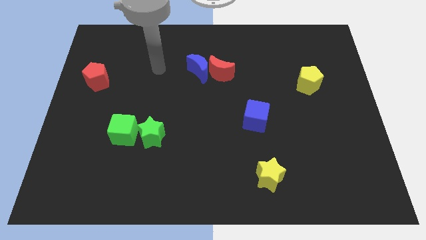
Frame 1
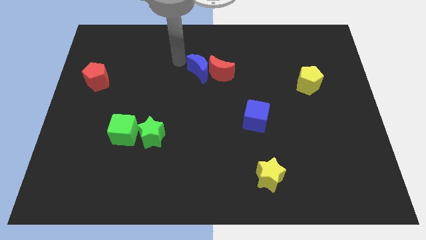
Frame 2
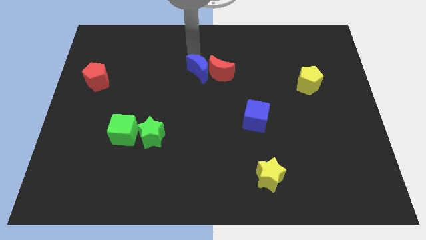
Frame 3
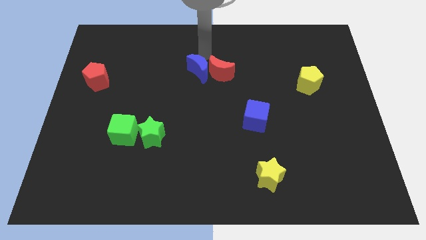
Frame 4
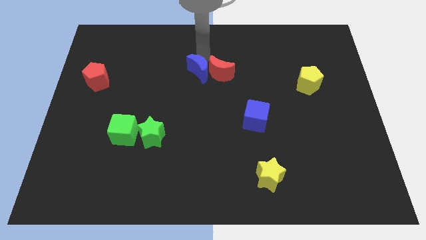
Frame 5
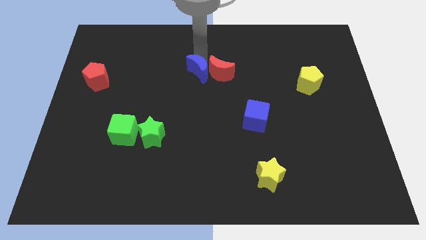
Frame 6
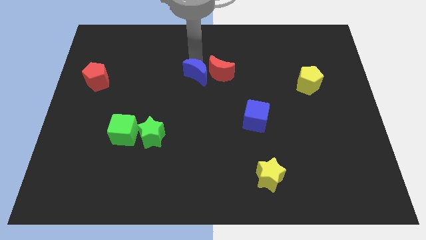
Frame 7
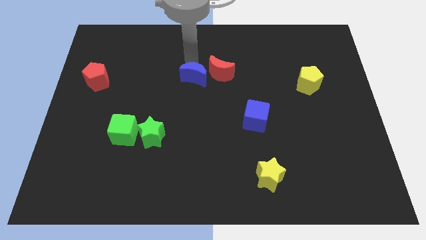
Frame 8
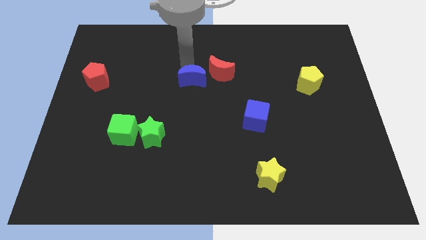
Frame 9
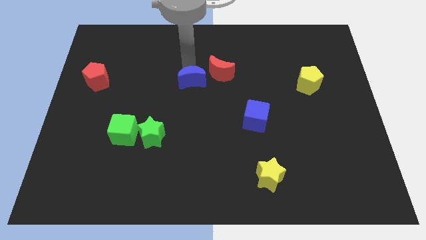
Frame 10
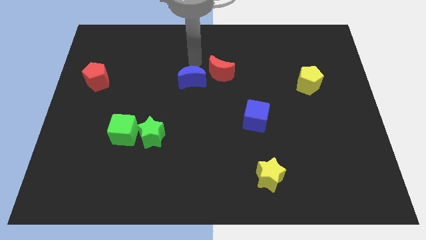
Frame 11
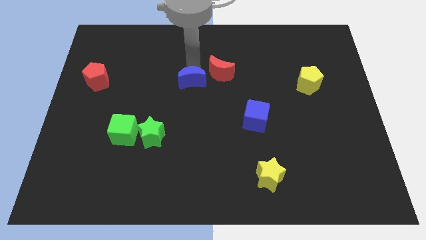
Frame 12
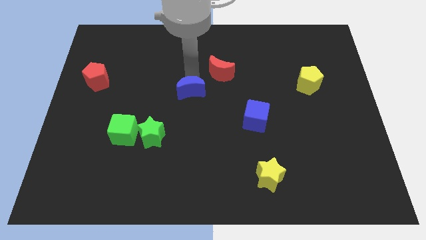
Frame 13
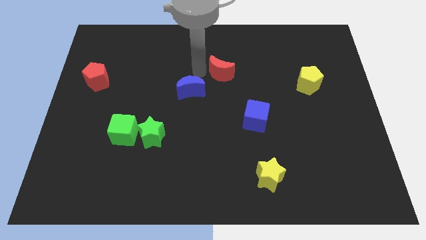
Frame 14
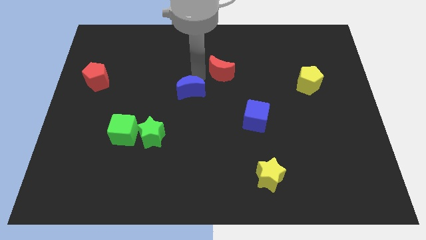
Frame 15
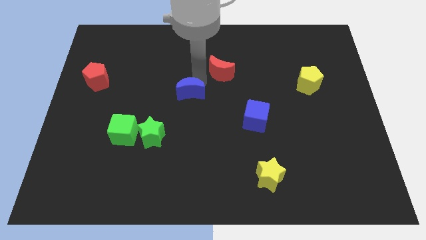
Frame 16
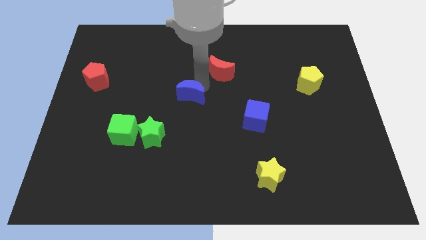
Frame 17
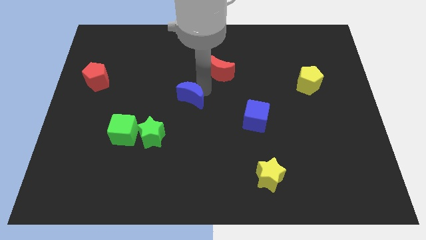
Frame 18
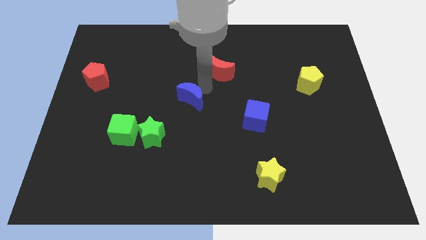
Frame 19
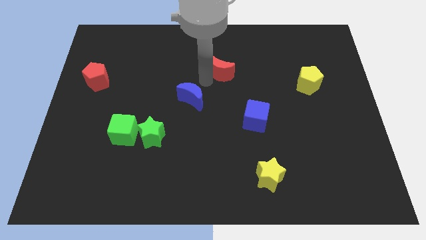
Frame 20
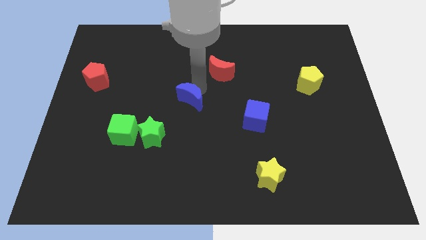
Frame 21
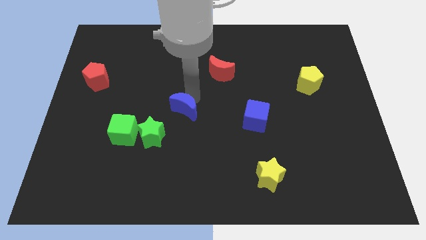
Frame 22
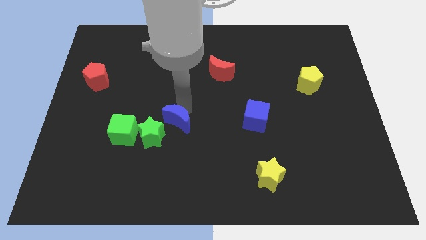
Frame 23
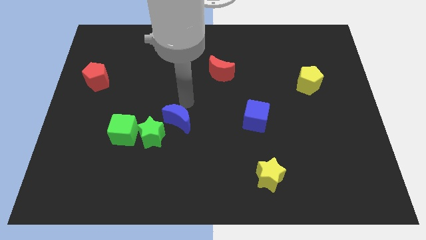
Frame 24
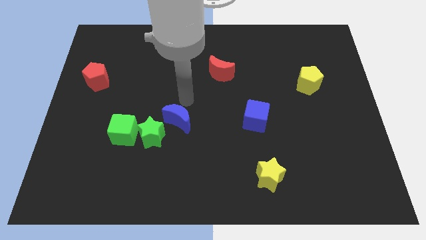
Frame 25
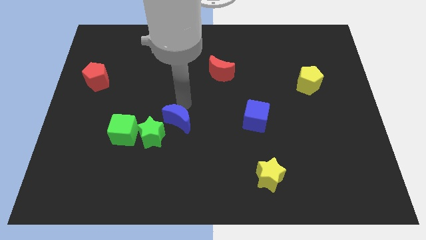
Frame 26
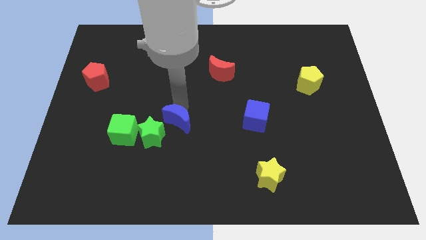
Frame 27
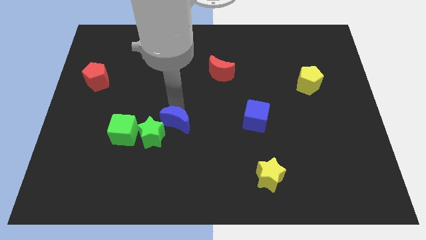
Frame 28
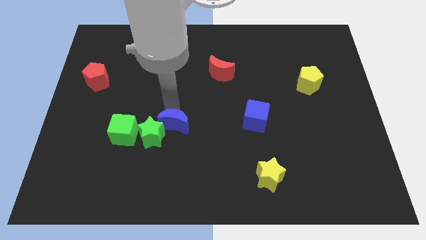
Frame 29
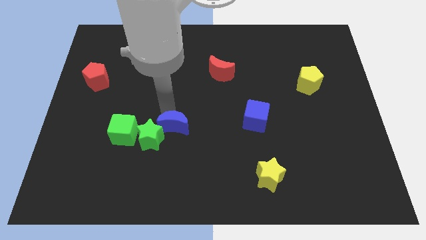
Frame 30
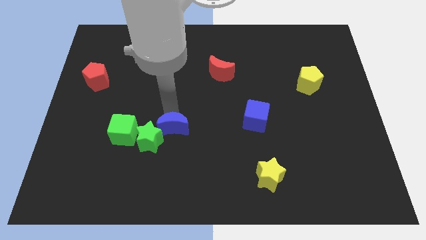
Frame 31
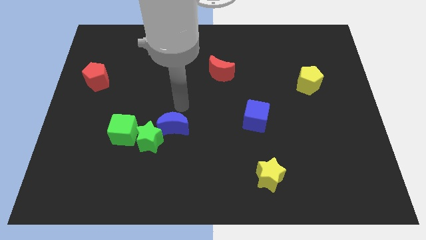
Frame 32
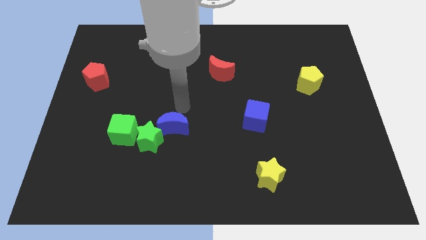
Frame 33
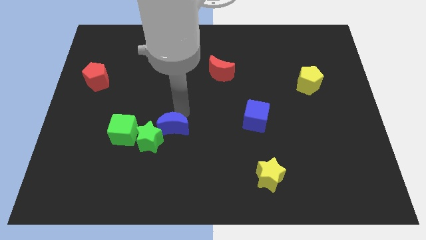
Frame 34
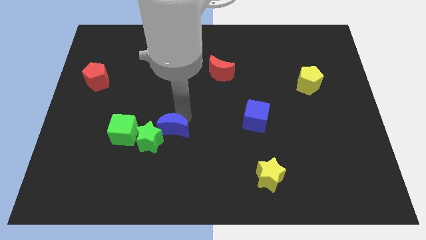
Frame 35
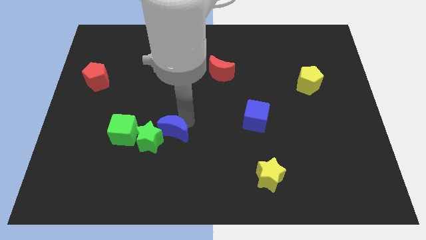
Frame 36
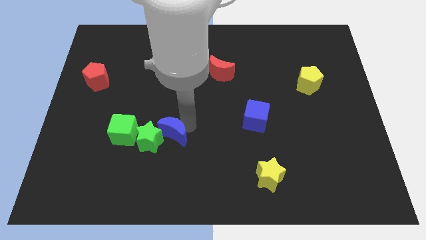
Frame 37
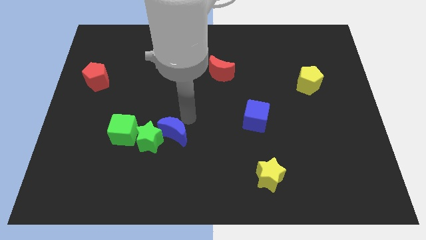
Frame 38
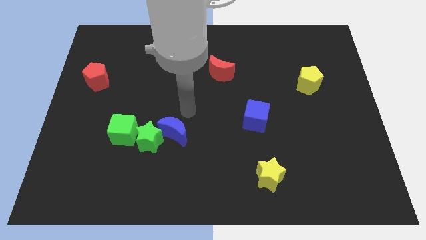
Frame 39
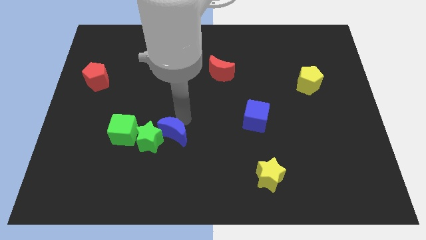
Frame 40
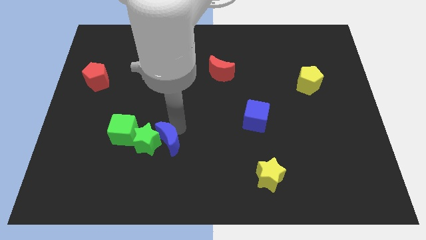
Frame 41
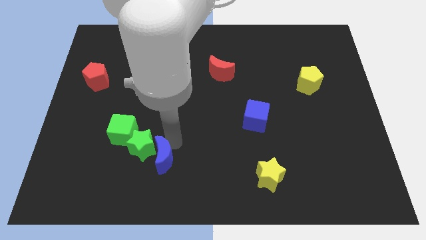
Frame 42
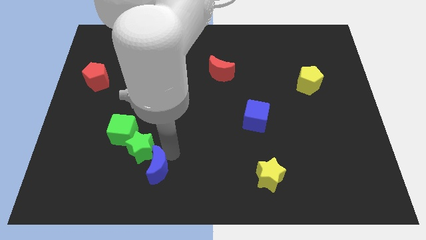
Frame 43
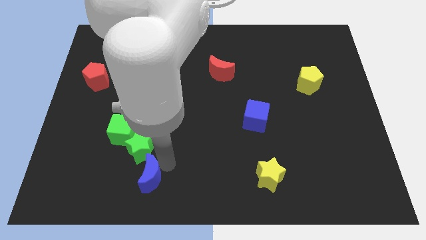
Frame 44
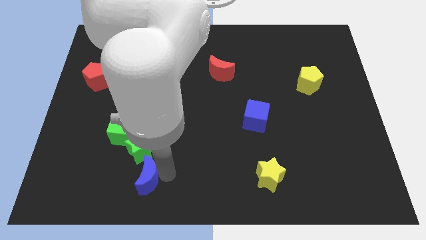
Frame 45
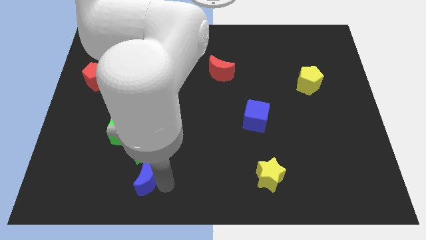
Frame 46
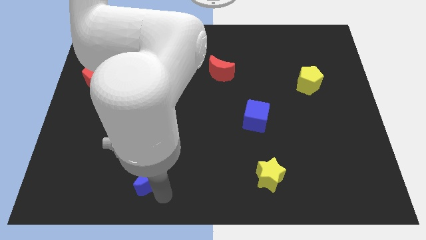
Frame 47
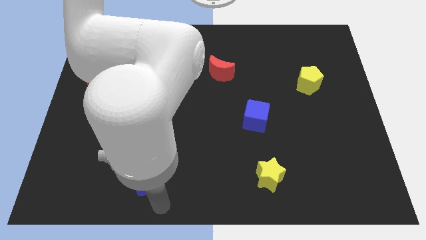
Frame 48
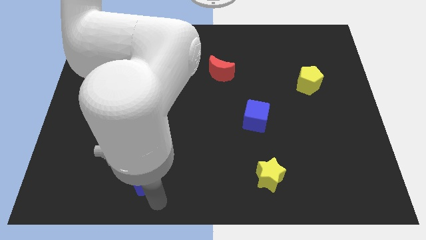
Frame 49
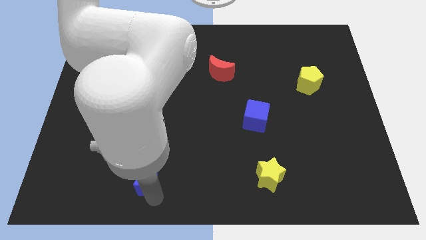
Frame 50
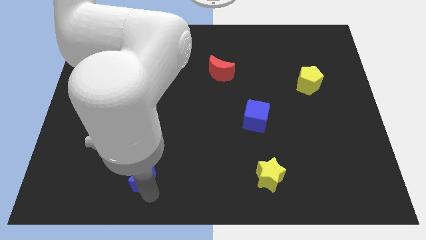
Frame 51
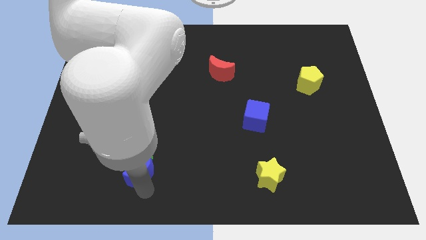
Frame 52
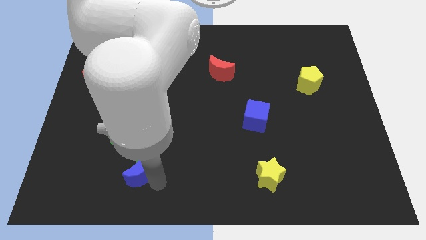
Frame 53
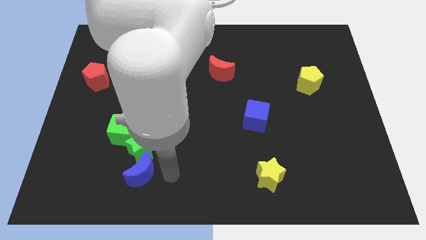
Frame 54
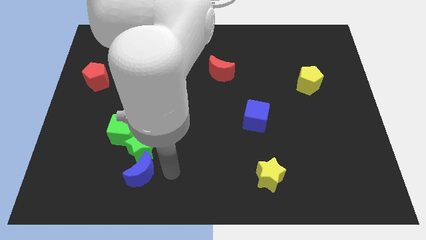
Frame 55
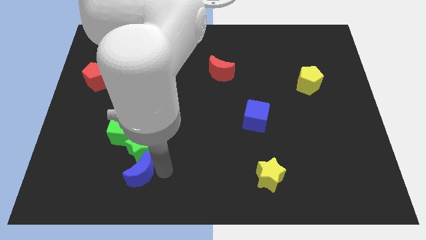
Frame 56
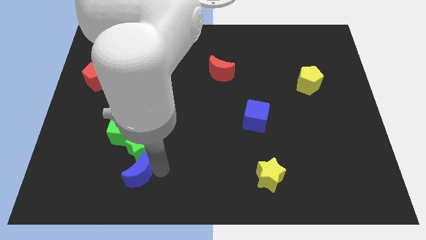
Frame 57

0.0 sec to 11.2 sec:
move the blue moon below the green cube

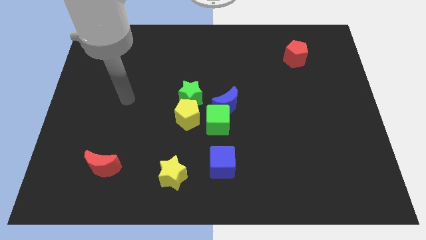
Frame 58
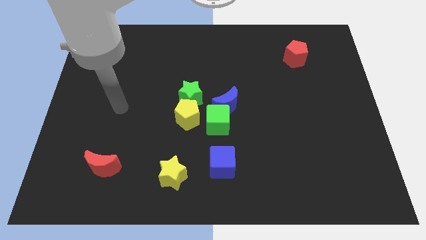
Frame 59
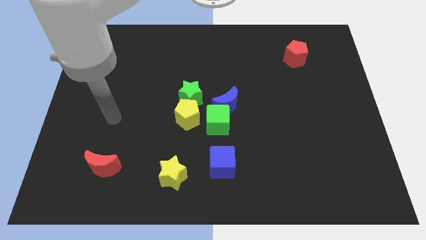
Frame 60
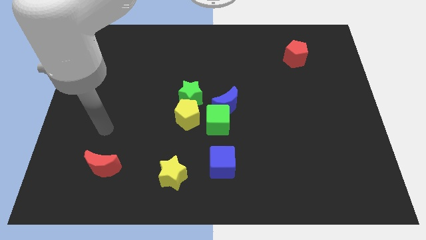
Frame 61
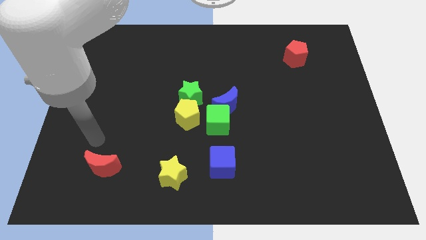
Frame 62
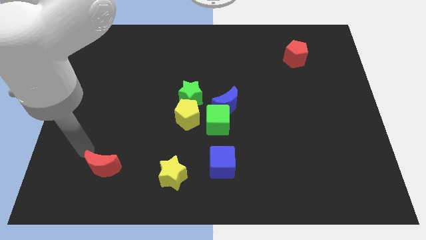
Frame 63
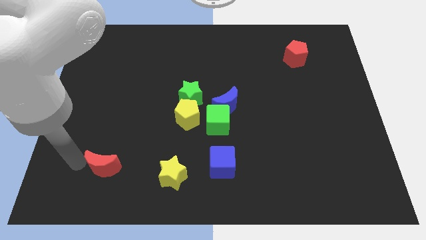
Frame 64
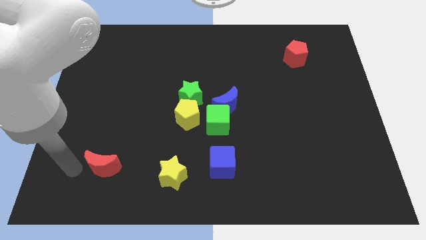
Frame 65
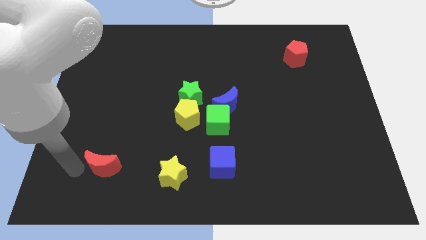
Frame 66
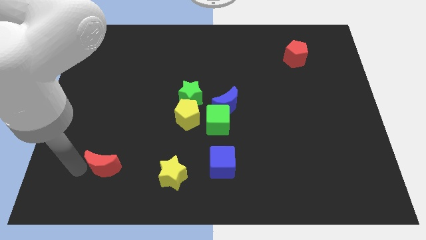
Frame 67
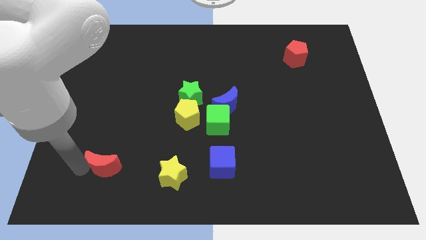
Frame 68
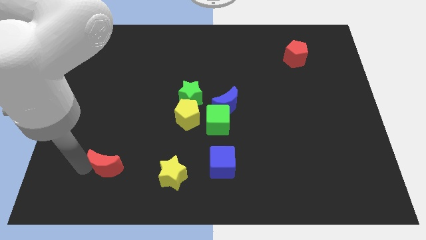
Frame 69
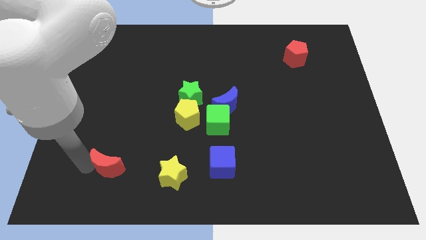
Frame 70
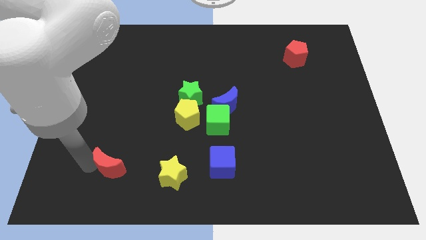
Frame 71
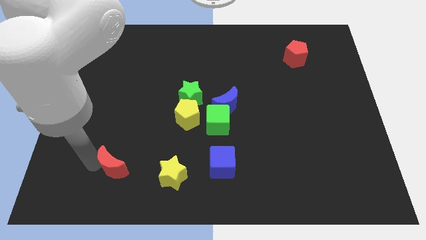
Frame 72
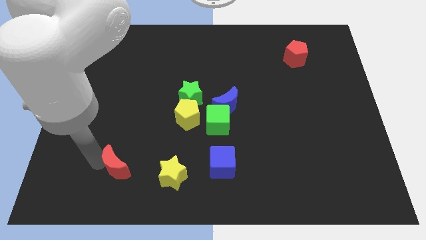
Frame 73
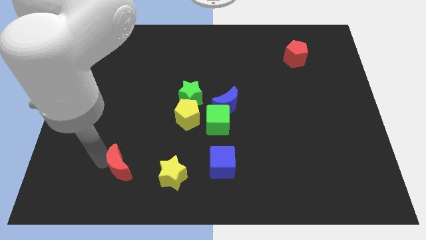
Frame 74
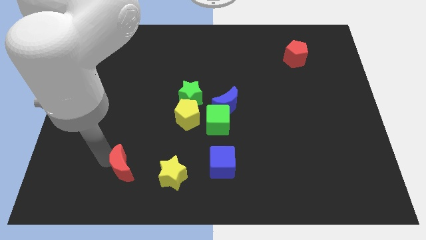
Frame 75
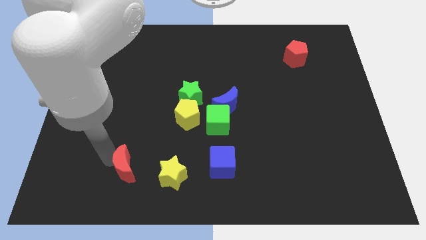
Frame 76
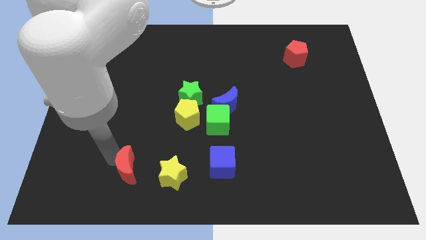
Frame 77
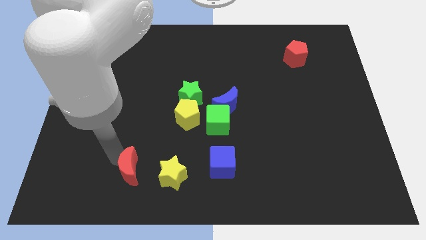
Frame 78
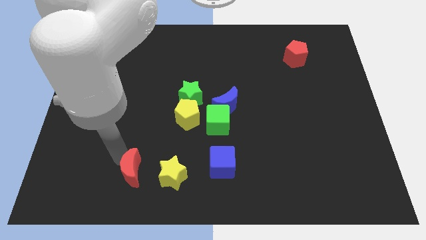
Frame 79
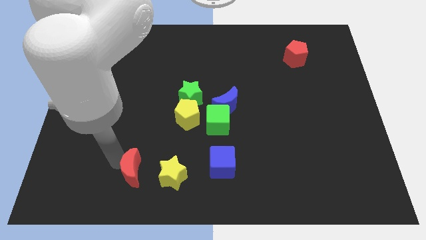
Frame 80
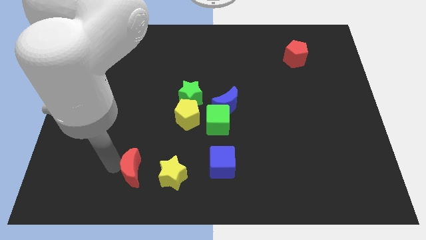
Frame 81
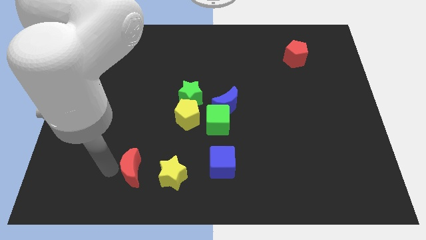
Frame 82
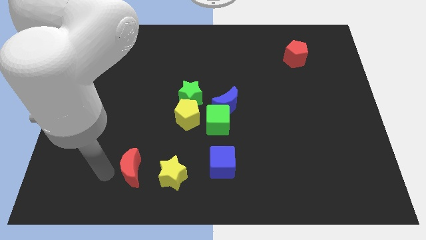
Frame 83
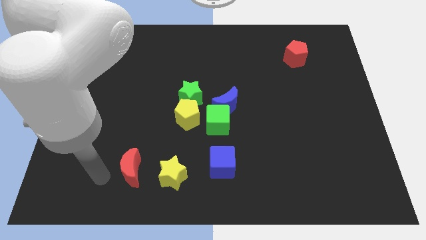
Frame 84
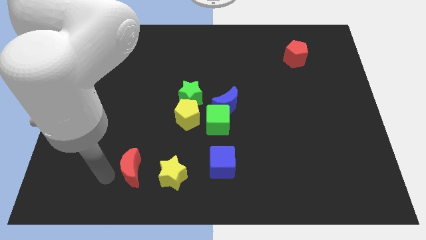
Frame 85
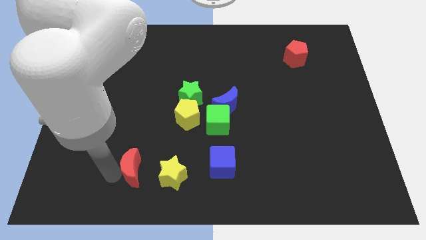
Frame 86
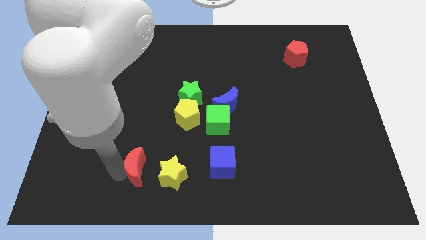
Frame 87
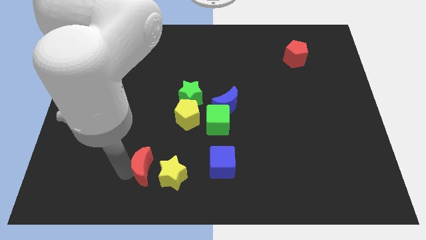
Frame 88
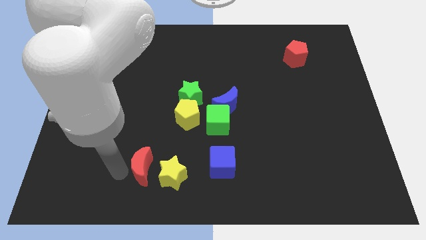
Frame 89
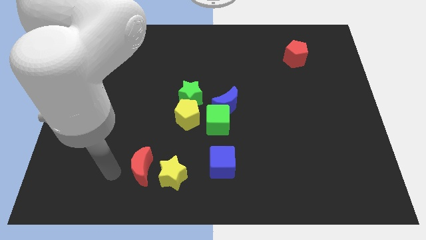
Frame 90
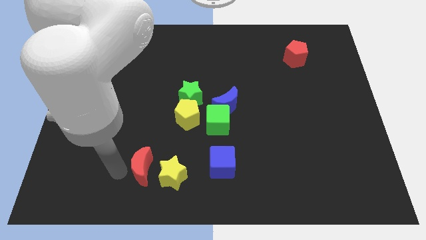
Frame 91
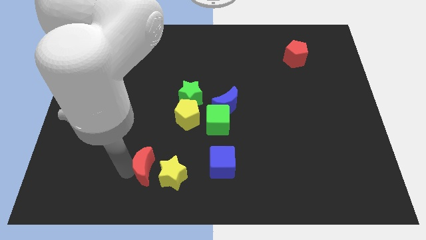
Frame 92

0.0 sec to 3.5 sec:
slide the red moon left of the blue cube
